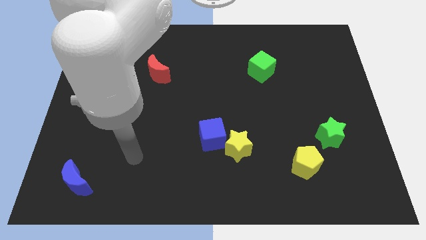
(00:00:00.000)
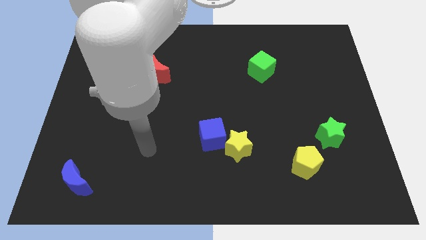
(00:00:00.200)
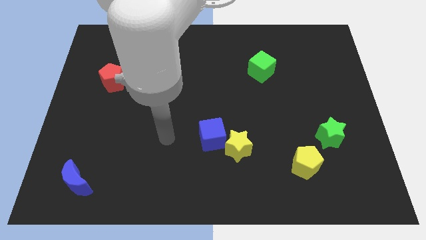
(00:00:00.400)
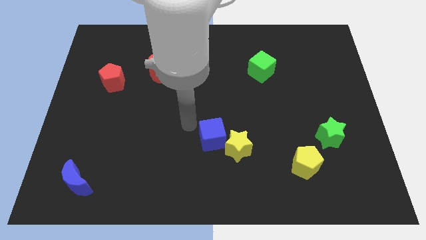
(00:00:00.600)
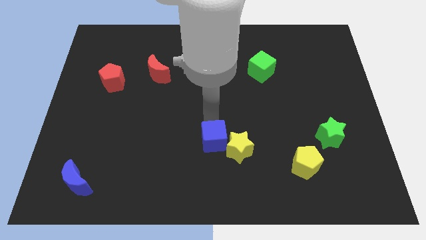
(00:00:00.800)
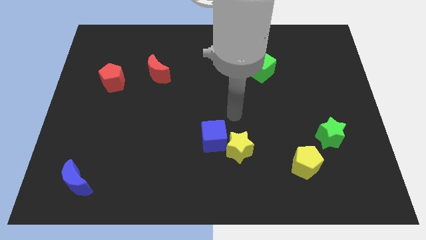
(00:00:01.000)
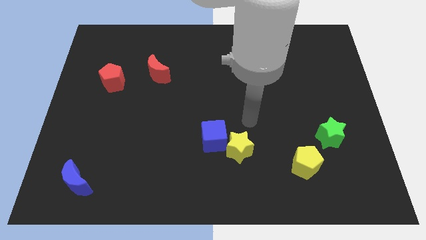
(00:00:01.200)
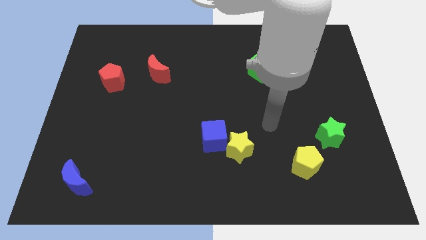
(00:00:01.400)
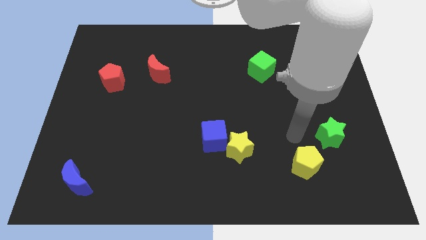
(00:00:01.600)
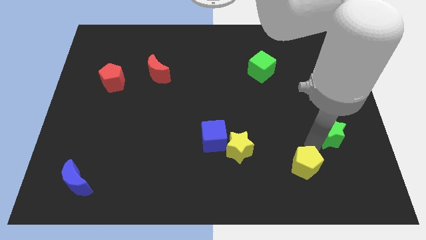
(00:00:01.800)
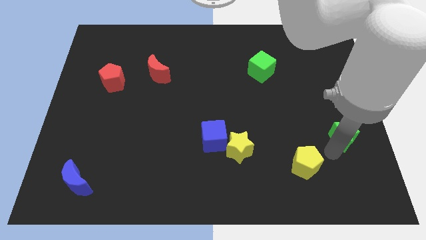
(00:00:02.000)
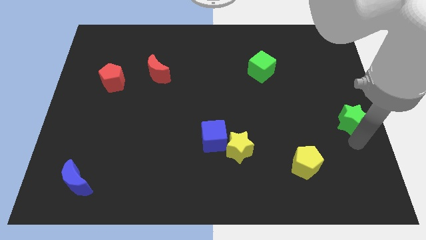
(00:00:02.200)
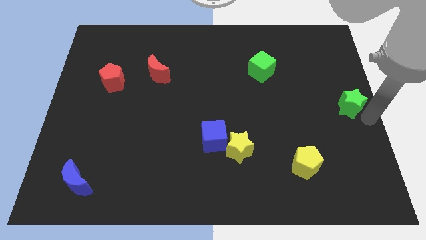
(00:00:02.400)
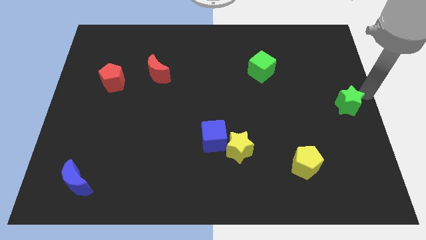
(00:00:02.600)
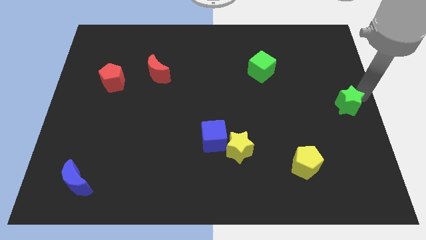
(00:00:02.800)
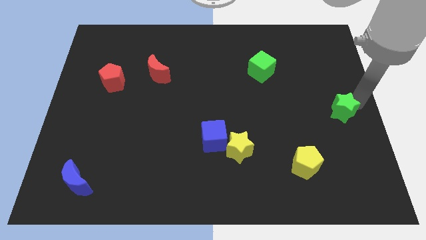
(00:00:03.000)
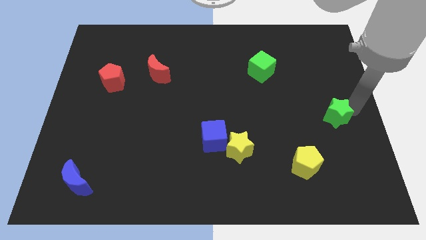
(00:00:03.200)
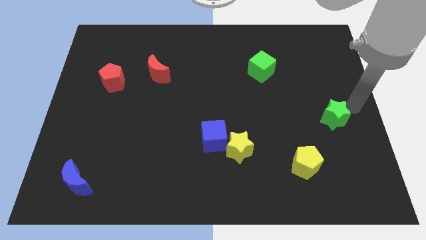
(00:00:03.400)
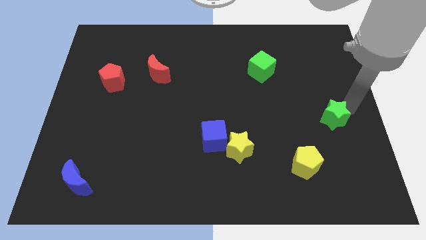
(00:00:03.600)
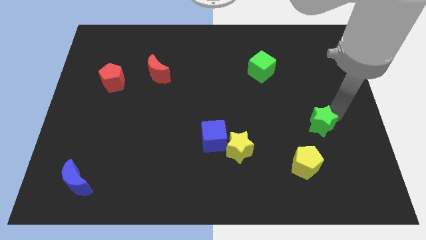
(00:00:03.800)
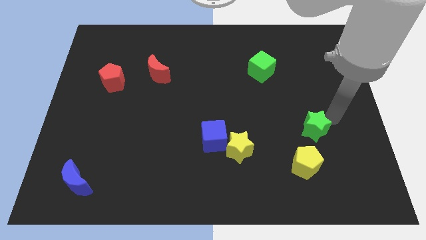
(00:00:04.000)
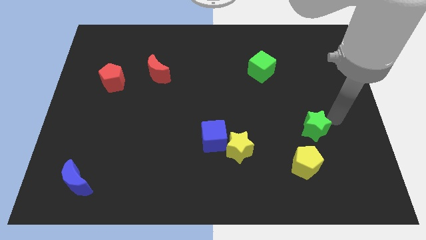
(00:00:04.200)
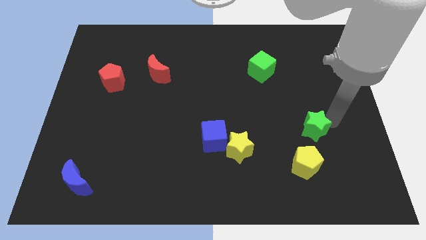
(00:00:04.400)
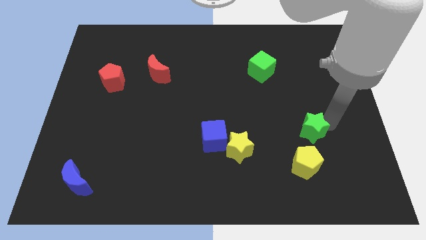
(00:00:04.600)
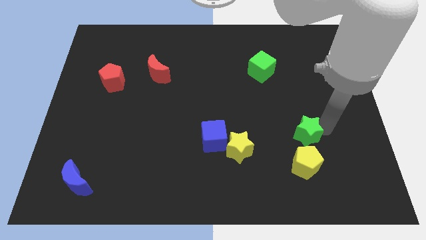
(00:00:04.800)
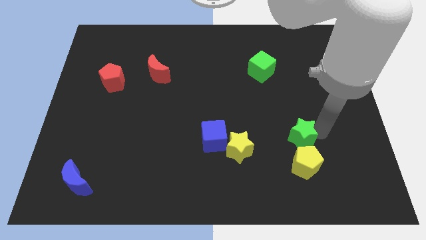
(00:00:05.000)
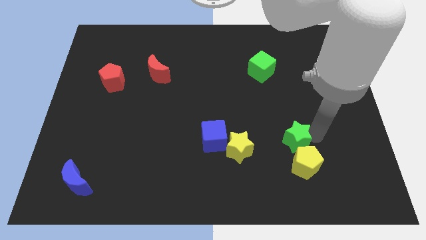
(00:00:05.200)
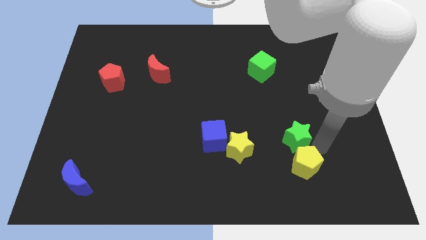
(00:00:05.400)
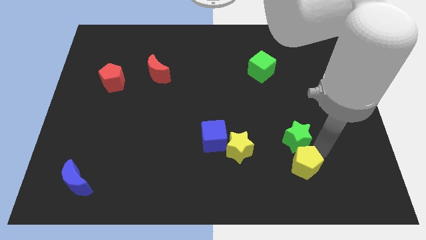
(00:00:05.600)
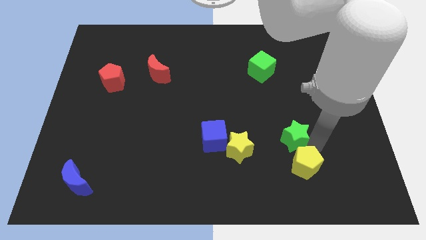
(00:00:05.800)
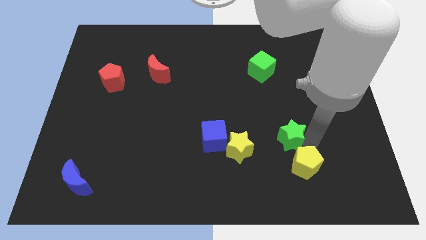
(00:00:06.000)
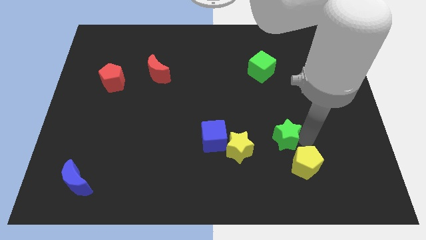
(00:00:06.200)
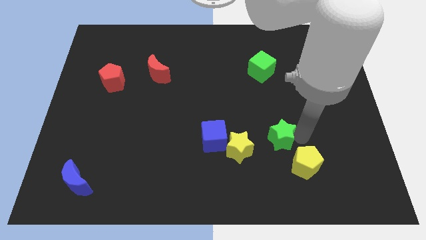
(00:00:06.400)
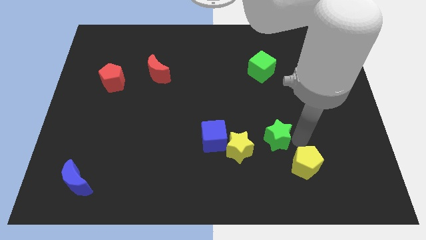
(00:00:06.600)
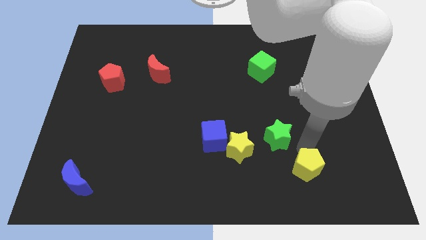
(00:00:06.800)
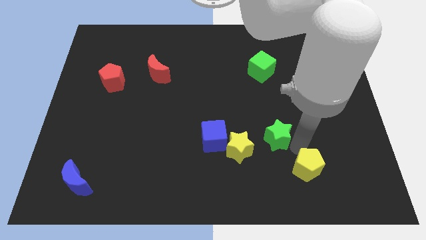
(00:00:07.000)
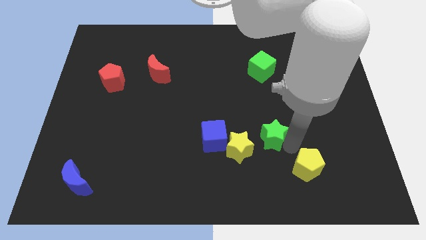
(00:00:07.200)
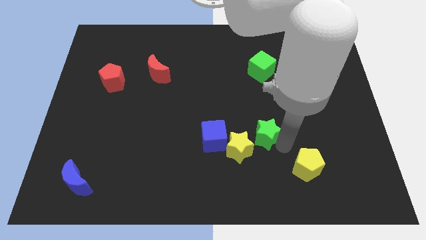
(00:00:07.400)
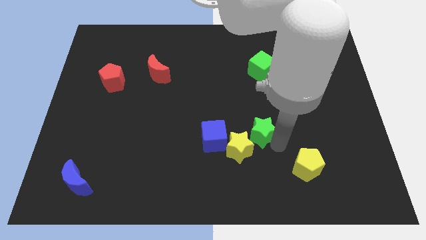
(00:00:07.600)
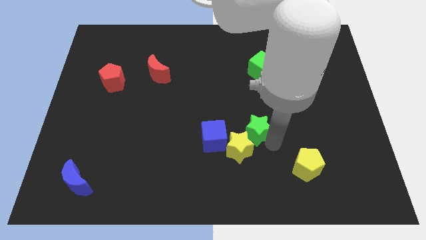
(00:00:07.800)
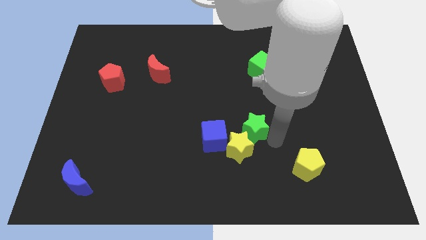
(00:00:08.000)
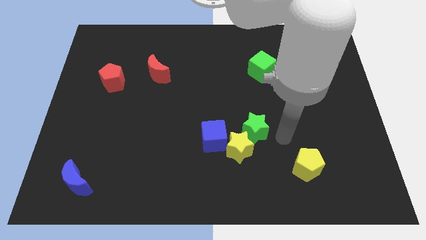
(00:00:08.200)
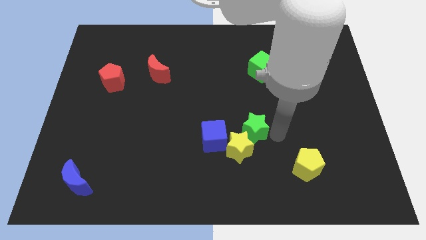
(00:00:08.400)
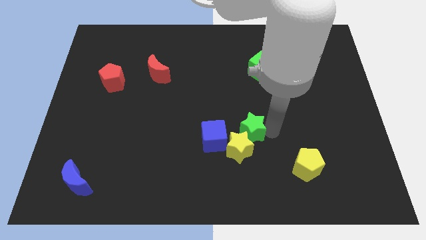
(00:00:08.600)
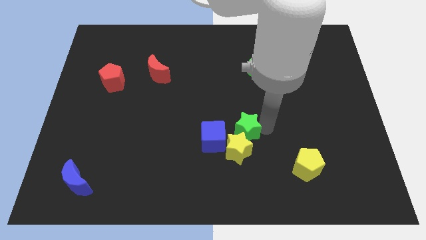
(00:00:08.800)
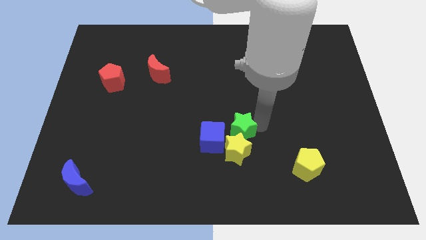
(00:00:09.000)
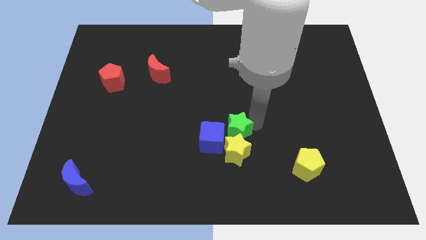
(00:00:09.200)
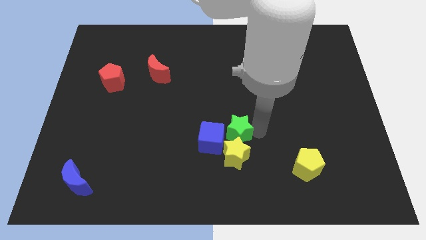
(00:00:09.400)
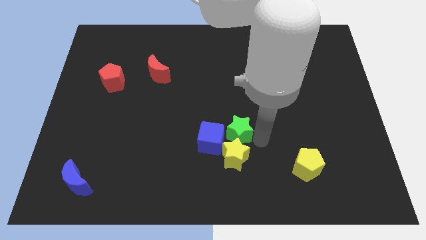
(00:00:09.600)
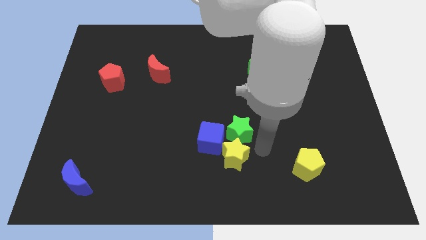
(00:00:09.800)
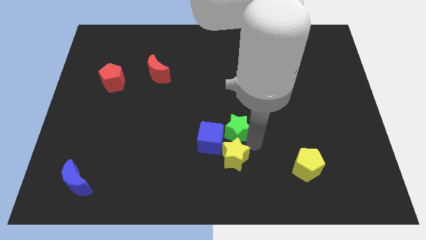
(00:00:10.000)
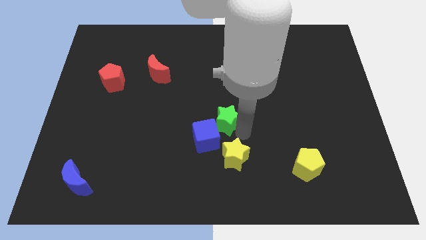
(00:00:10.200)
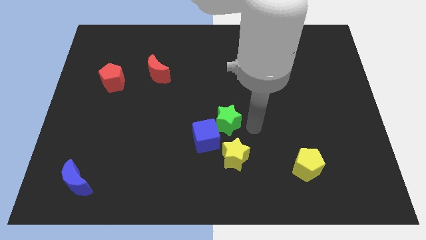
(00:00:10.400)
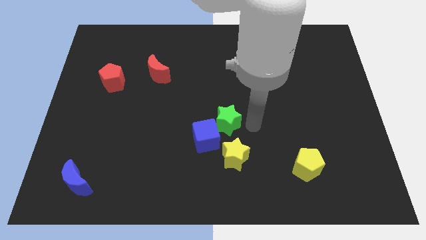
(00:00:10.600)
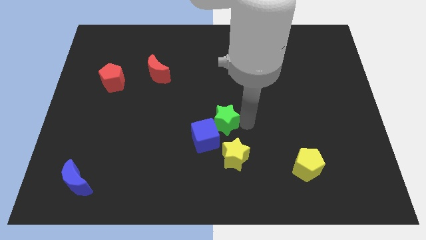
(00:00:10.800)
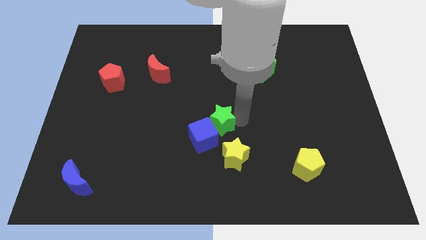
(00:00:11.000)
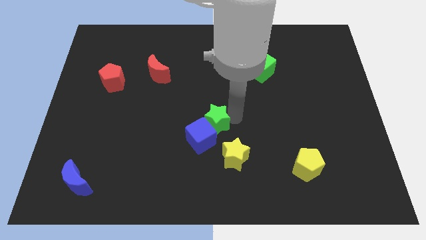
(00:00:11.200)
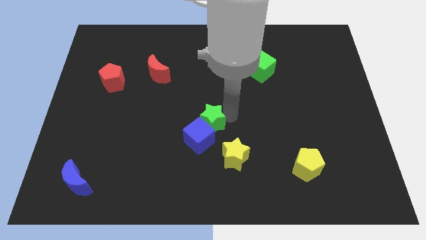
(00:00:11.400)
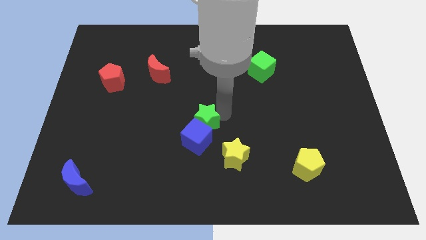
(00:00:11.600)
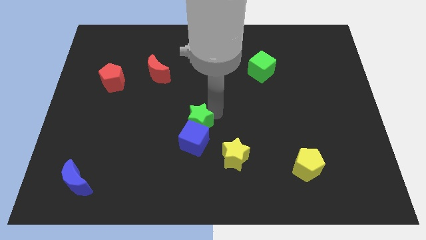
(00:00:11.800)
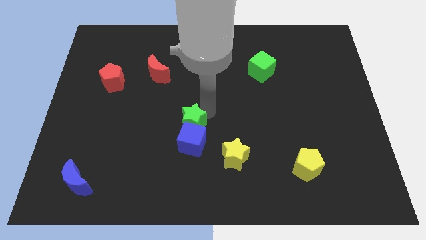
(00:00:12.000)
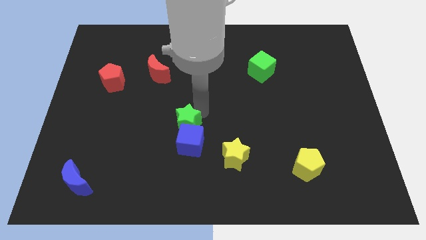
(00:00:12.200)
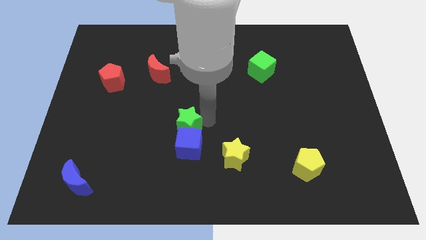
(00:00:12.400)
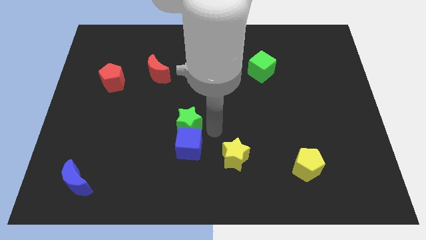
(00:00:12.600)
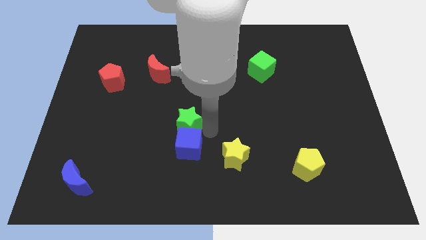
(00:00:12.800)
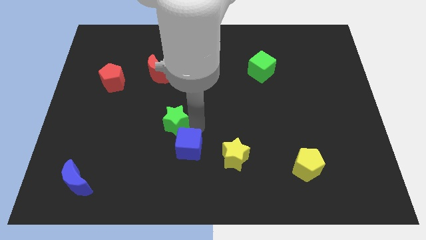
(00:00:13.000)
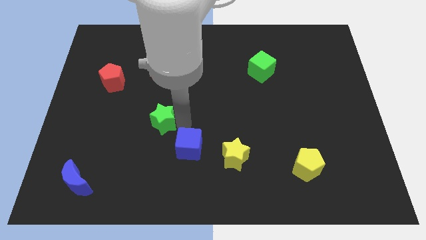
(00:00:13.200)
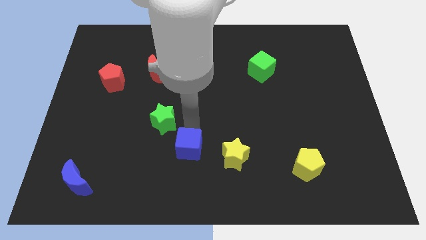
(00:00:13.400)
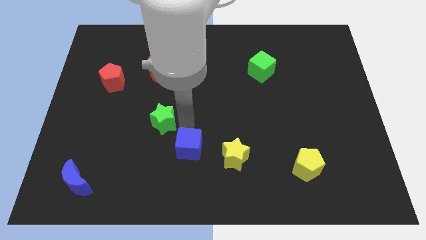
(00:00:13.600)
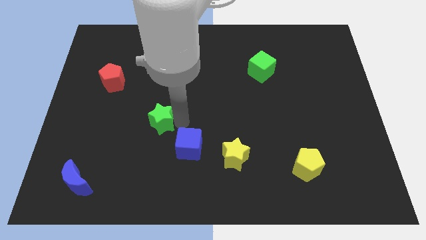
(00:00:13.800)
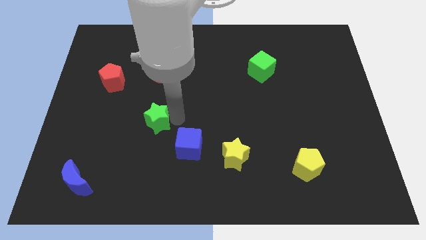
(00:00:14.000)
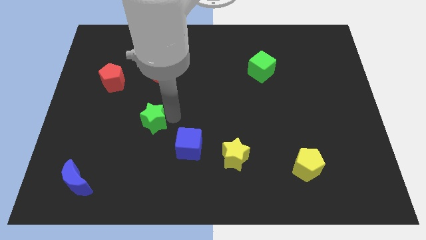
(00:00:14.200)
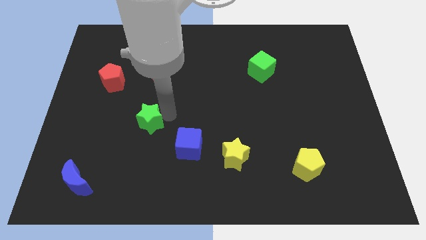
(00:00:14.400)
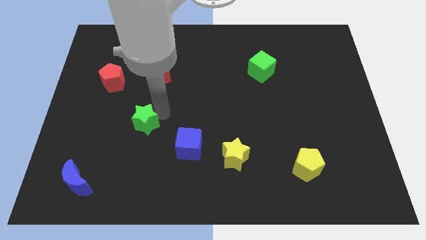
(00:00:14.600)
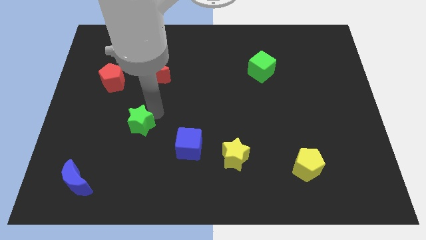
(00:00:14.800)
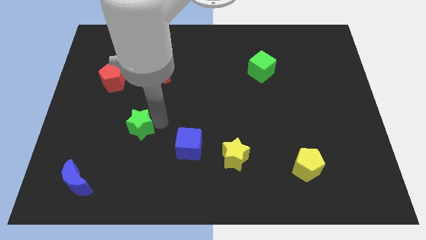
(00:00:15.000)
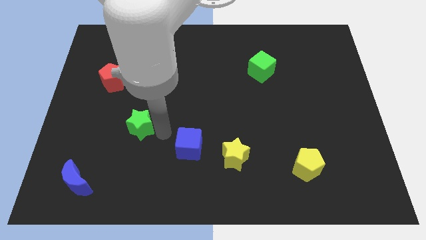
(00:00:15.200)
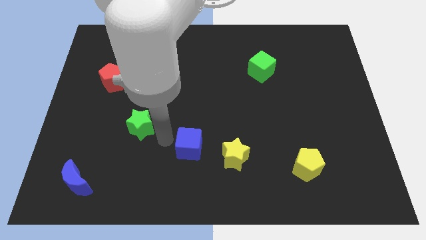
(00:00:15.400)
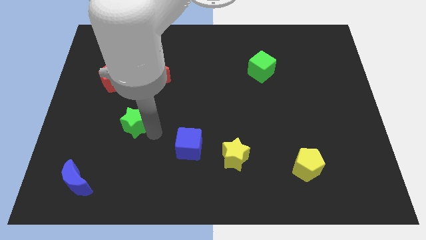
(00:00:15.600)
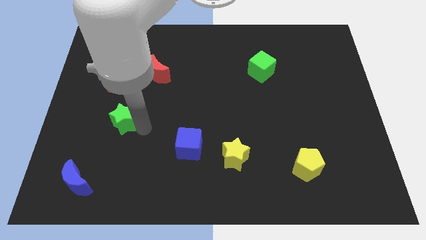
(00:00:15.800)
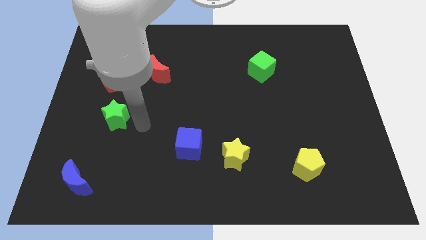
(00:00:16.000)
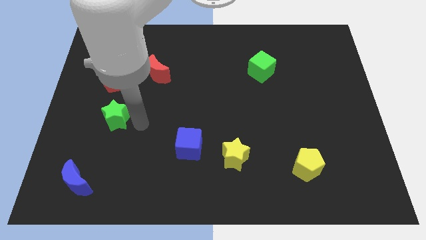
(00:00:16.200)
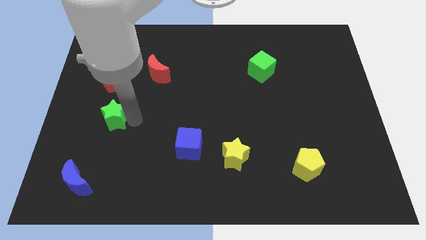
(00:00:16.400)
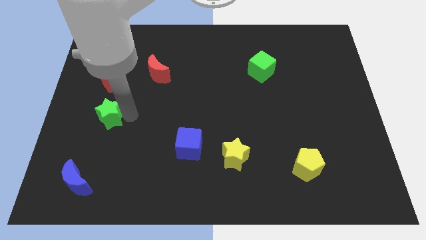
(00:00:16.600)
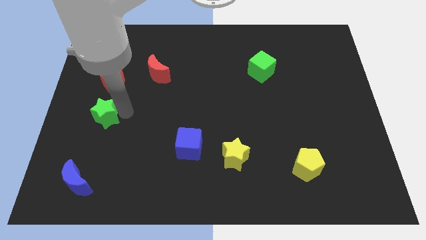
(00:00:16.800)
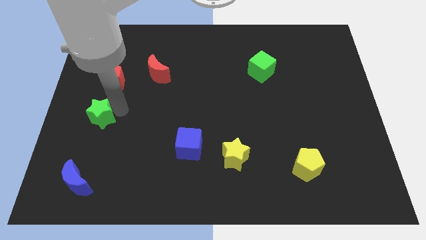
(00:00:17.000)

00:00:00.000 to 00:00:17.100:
slide the green star to the center left
